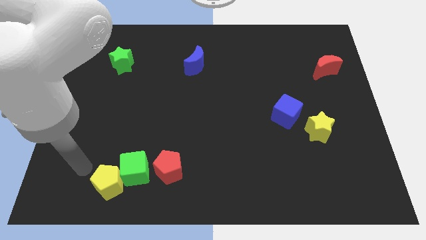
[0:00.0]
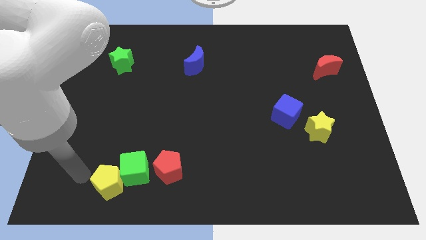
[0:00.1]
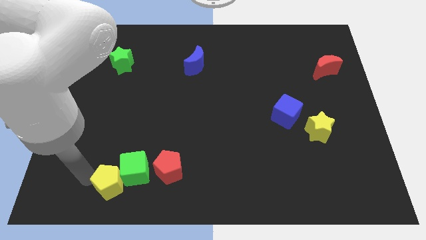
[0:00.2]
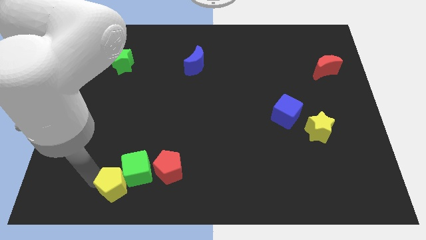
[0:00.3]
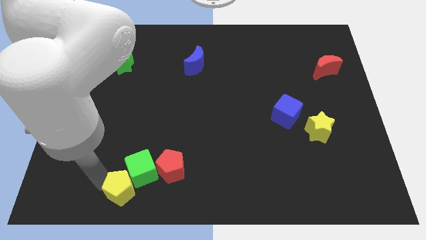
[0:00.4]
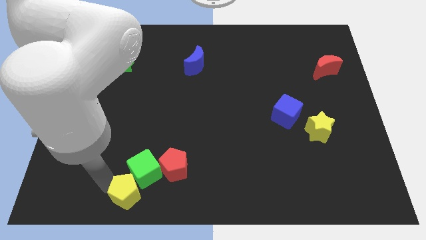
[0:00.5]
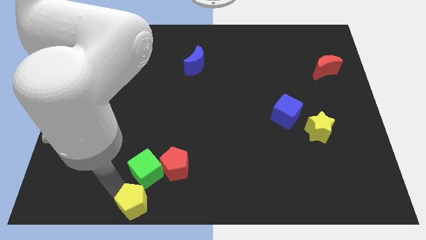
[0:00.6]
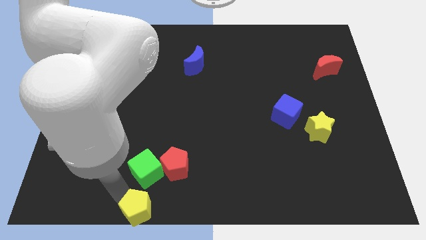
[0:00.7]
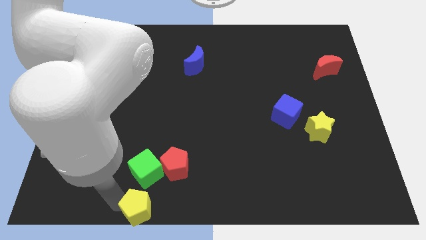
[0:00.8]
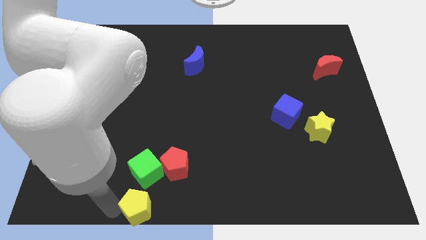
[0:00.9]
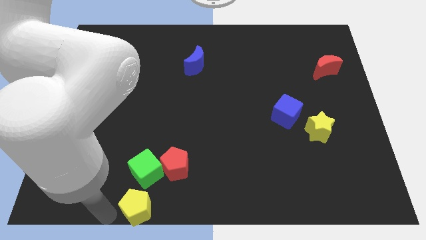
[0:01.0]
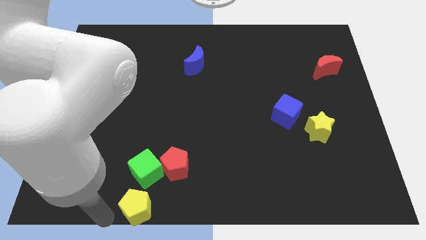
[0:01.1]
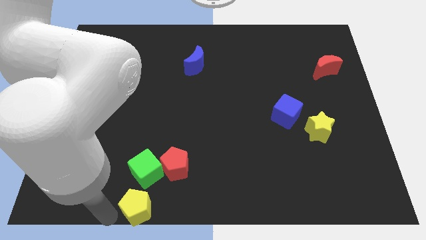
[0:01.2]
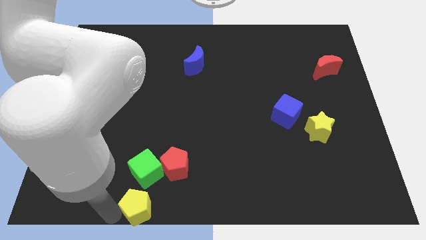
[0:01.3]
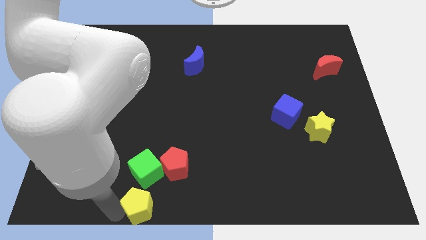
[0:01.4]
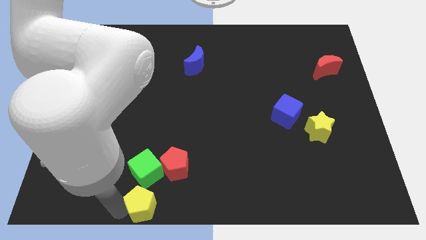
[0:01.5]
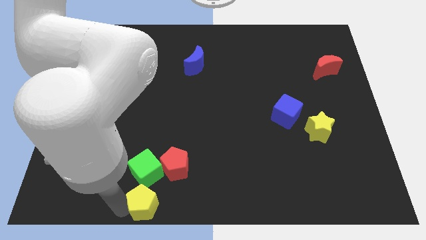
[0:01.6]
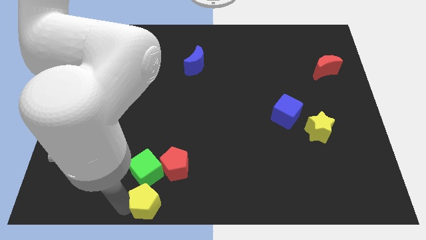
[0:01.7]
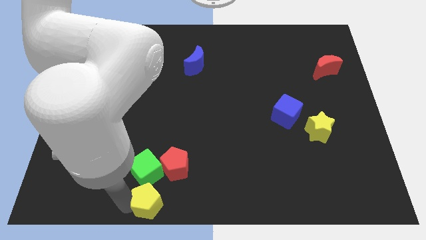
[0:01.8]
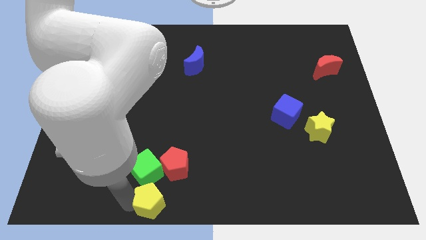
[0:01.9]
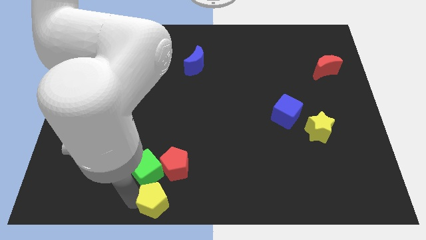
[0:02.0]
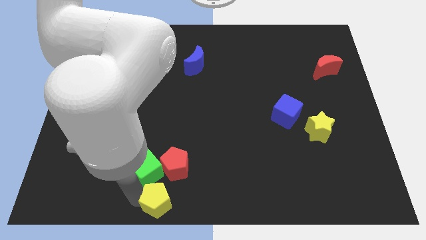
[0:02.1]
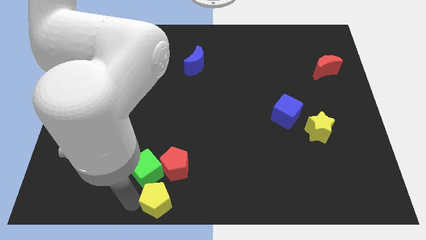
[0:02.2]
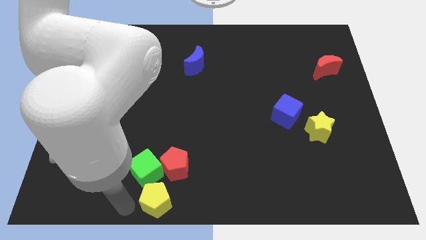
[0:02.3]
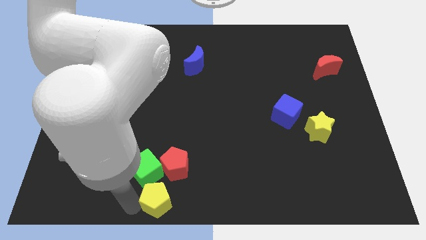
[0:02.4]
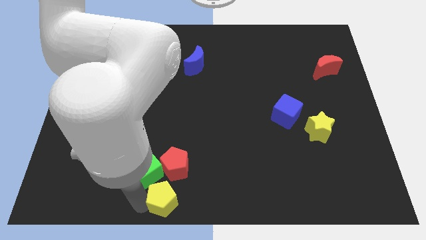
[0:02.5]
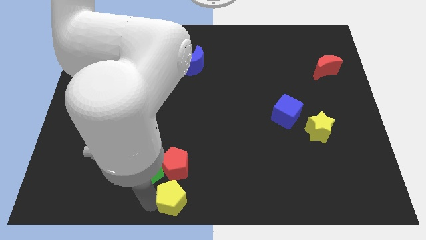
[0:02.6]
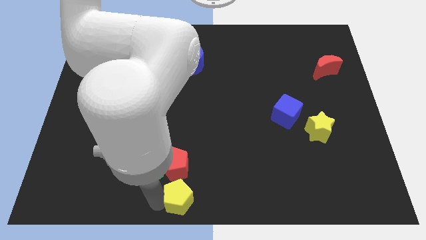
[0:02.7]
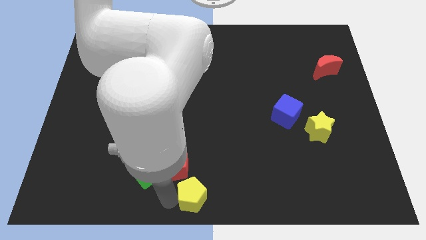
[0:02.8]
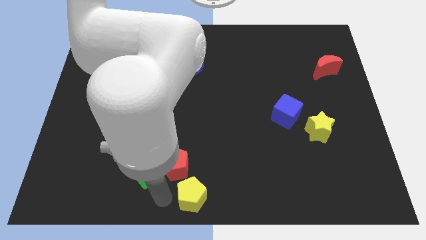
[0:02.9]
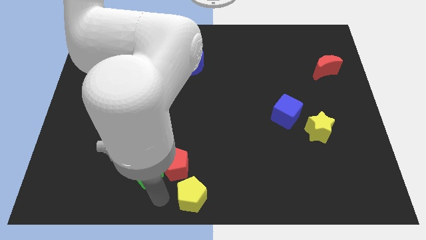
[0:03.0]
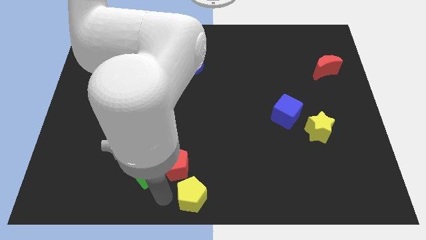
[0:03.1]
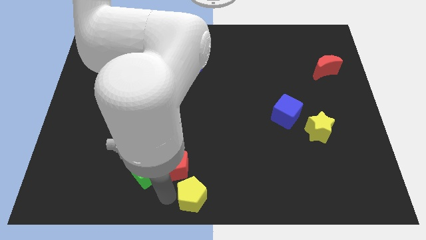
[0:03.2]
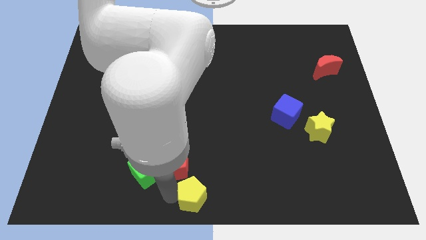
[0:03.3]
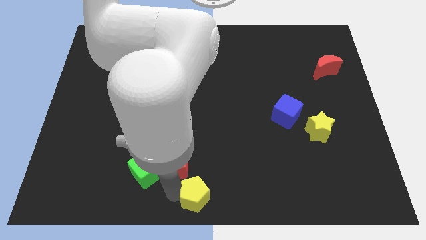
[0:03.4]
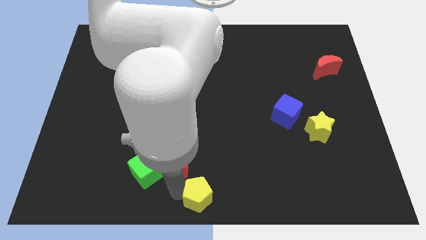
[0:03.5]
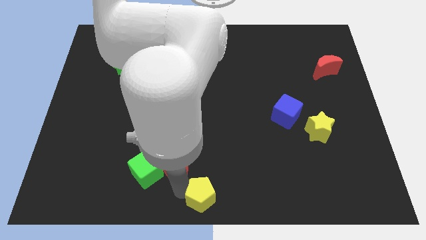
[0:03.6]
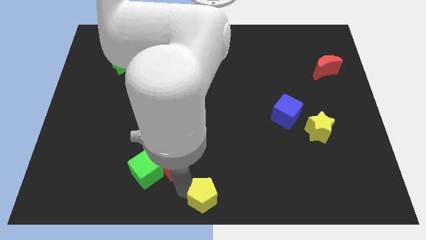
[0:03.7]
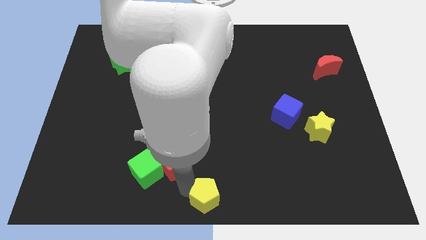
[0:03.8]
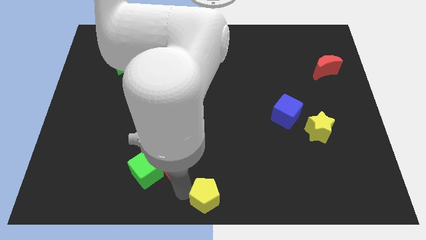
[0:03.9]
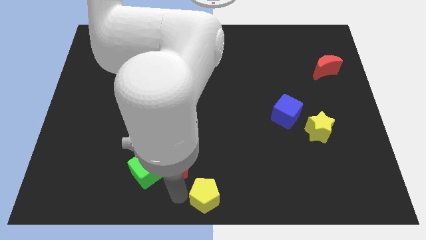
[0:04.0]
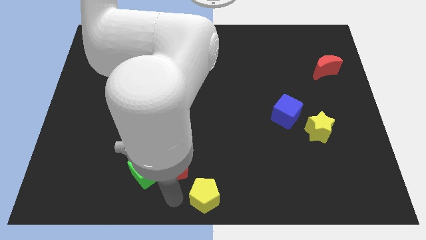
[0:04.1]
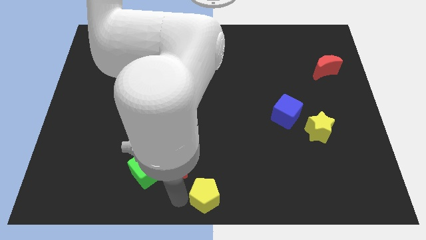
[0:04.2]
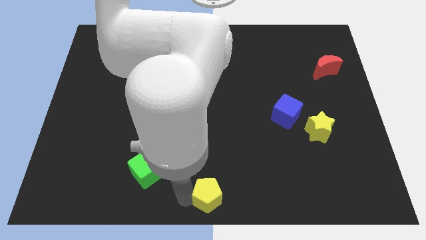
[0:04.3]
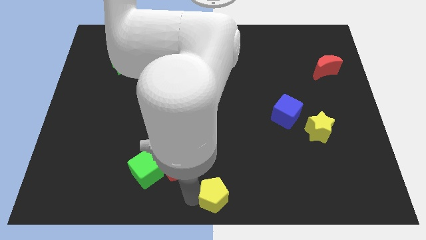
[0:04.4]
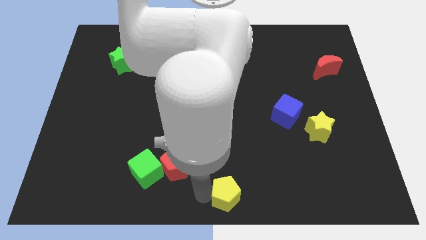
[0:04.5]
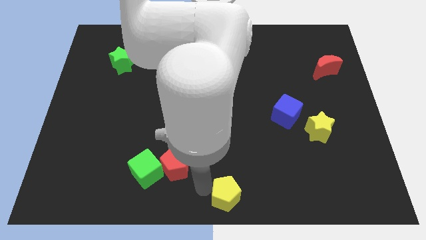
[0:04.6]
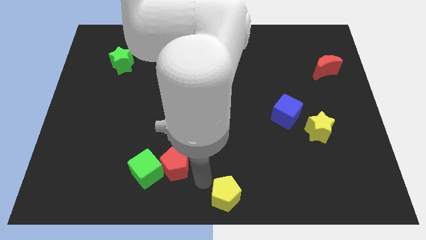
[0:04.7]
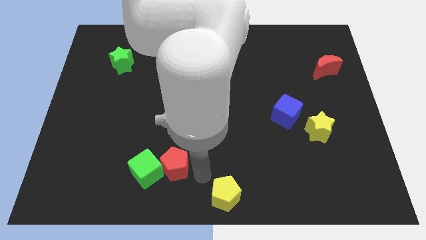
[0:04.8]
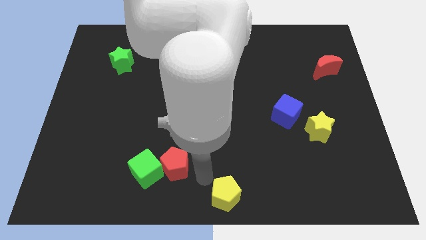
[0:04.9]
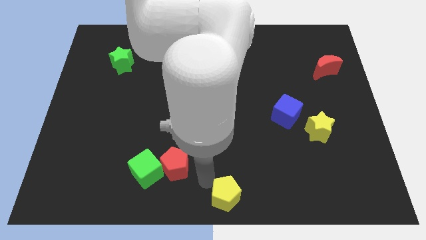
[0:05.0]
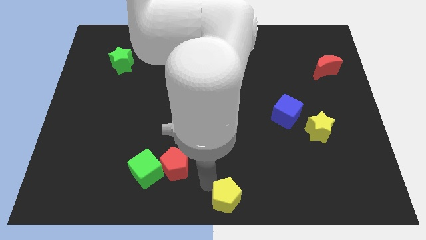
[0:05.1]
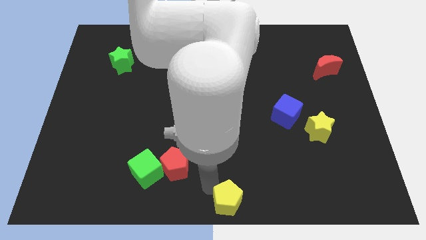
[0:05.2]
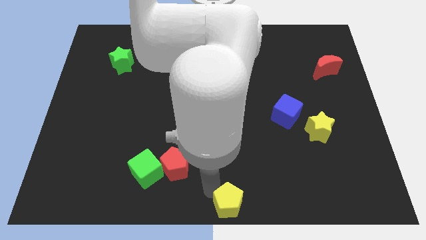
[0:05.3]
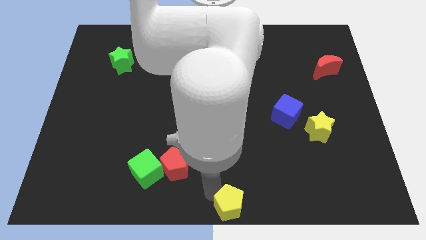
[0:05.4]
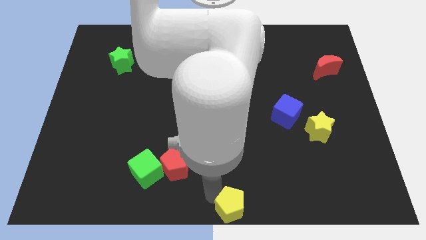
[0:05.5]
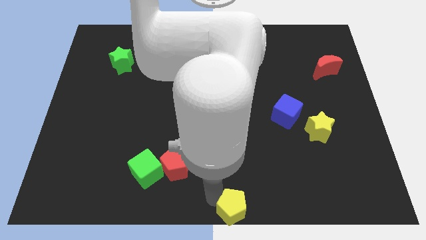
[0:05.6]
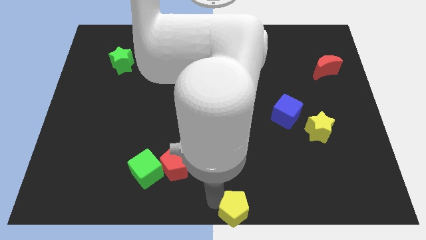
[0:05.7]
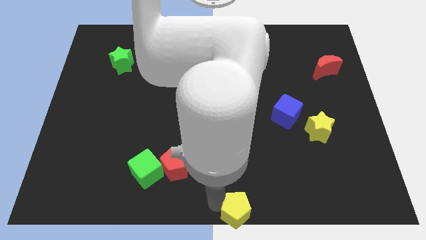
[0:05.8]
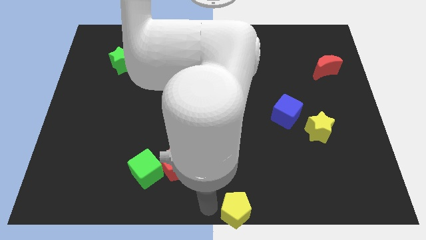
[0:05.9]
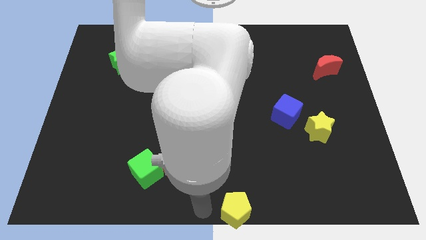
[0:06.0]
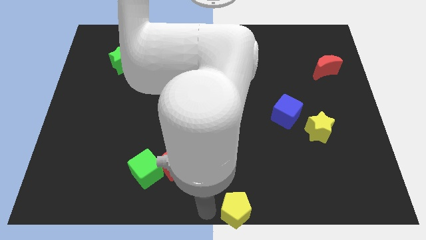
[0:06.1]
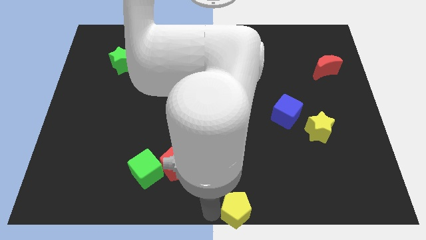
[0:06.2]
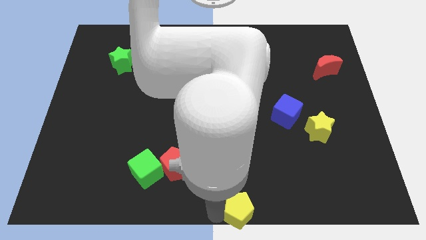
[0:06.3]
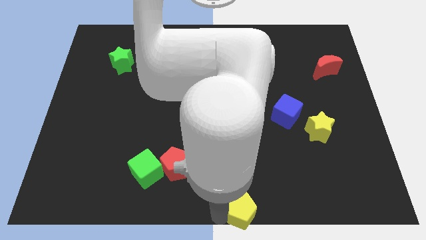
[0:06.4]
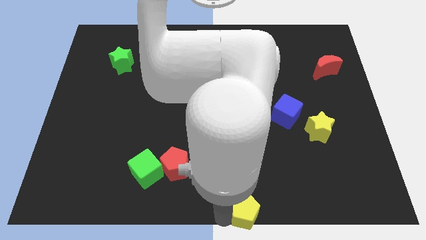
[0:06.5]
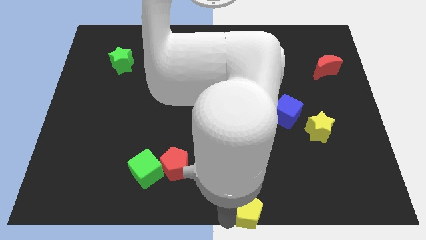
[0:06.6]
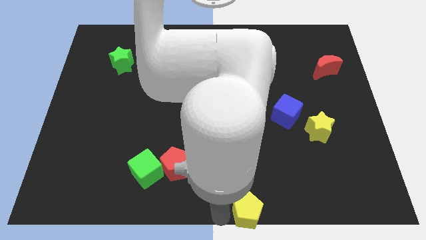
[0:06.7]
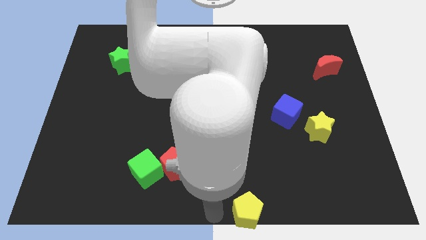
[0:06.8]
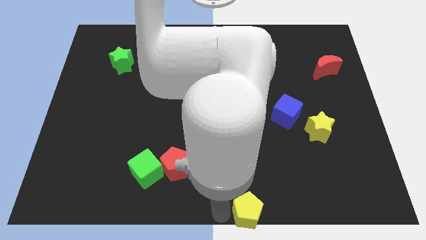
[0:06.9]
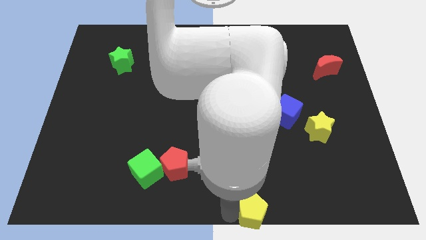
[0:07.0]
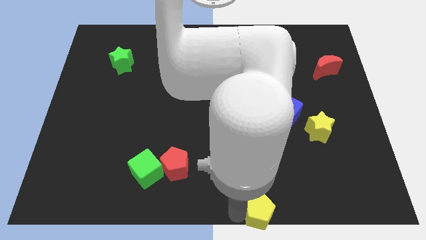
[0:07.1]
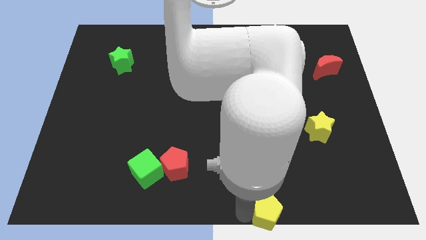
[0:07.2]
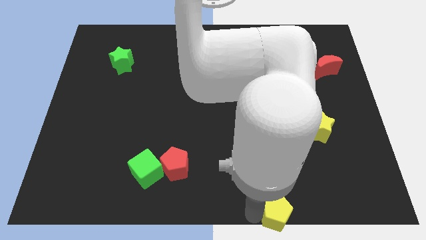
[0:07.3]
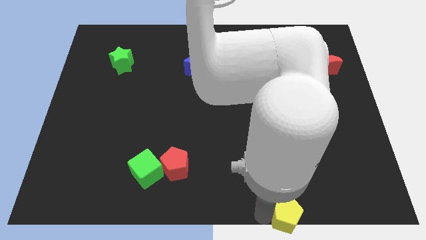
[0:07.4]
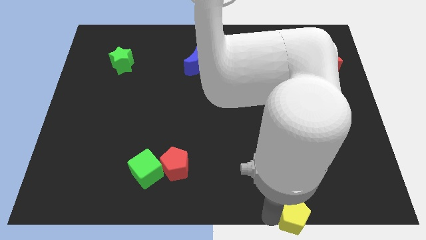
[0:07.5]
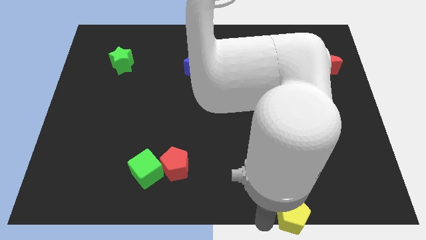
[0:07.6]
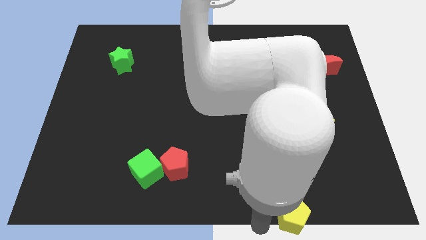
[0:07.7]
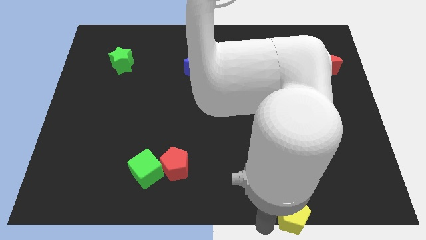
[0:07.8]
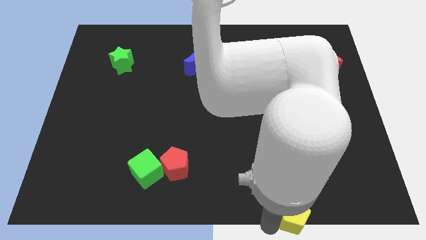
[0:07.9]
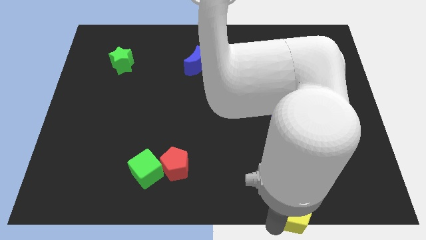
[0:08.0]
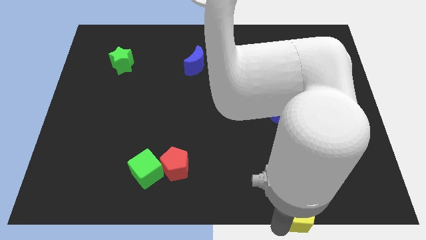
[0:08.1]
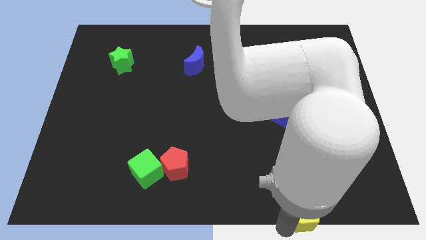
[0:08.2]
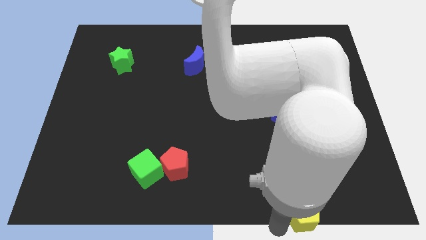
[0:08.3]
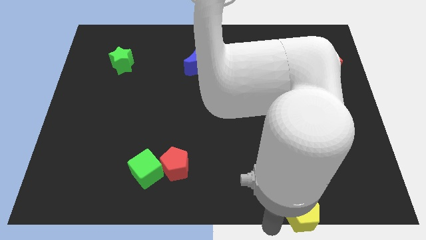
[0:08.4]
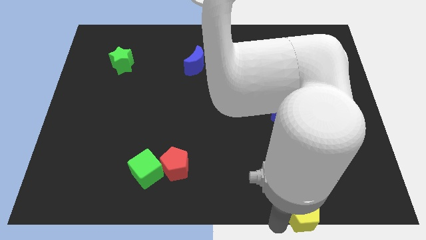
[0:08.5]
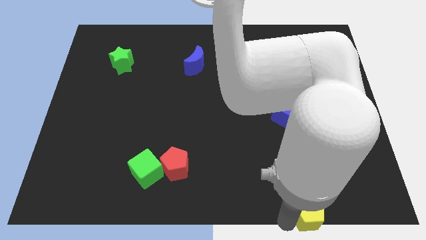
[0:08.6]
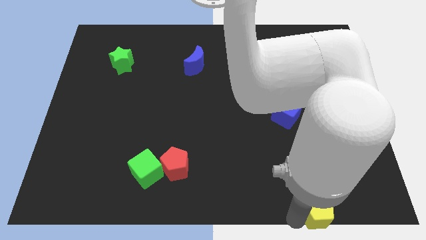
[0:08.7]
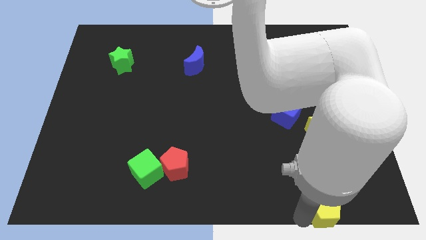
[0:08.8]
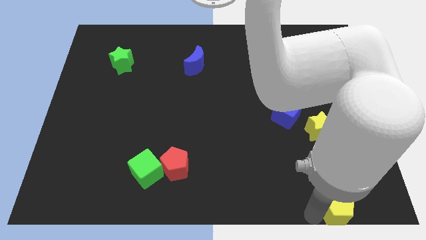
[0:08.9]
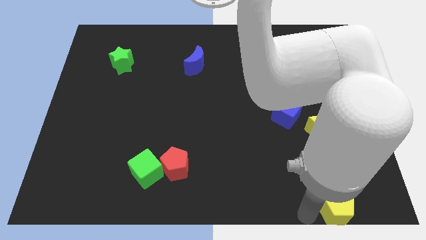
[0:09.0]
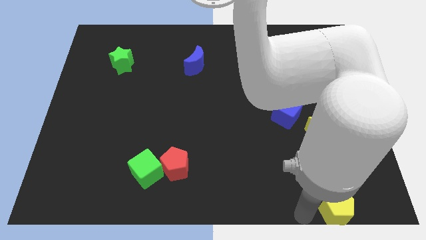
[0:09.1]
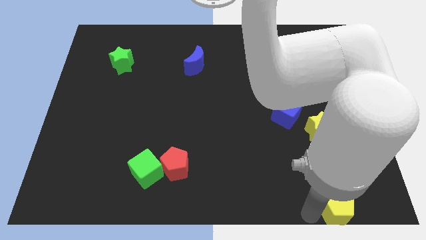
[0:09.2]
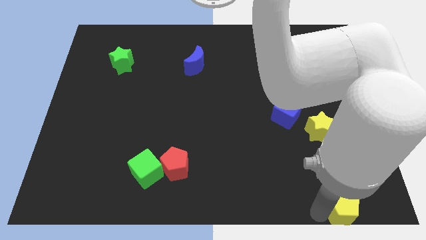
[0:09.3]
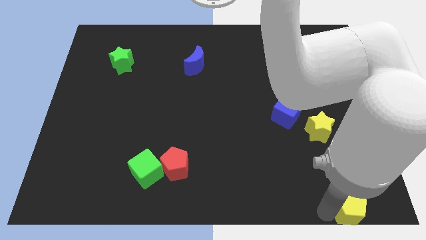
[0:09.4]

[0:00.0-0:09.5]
move the yellow pentagon to the bottom right of the board
